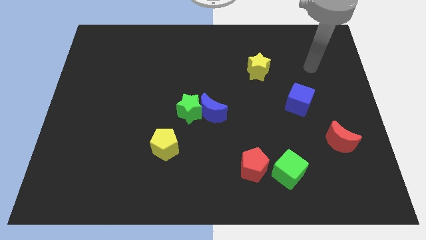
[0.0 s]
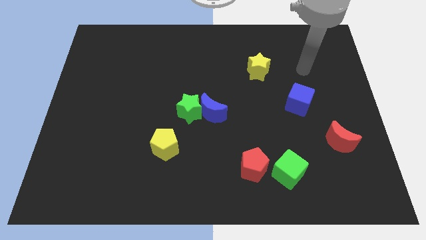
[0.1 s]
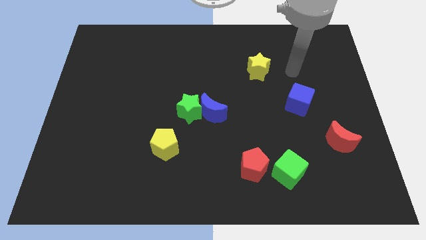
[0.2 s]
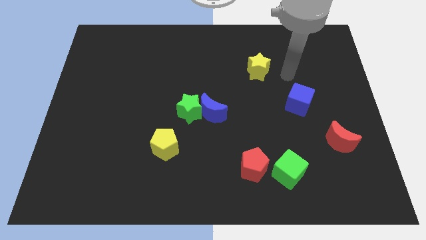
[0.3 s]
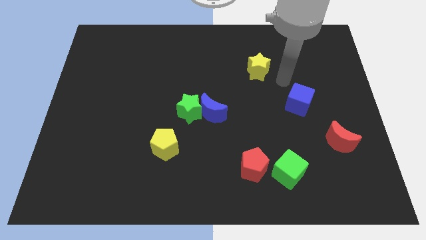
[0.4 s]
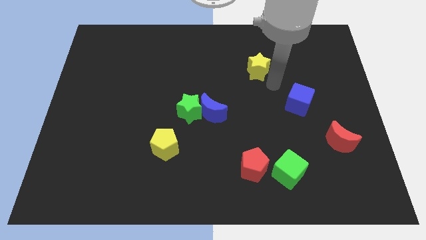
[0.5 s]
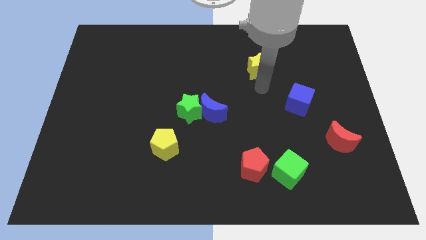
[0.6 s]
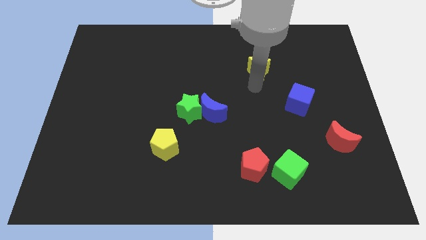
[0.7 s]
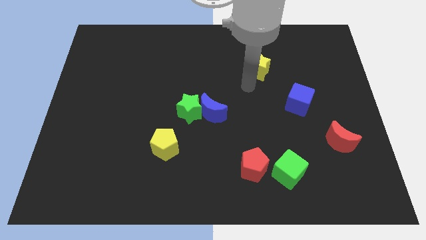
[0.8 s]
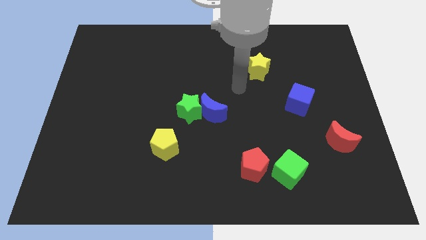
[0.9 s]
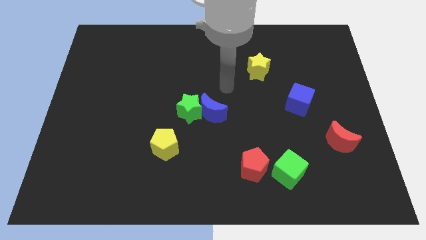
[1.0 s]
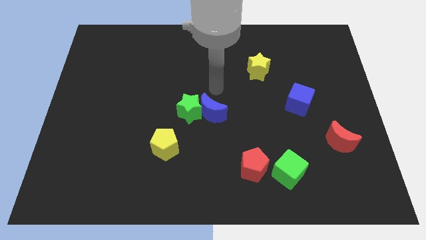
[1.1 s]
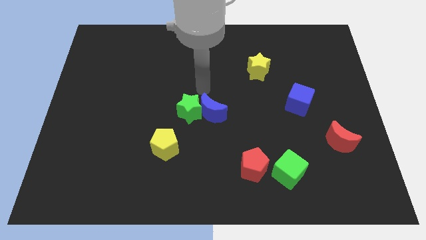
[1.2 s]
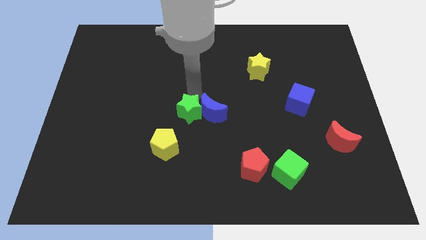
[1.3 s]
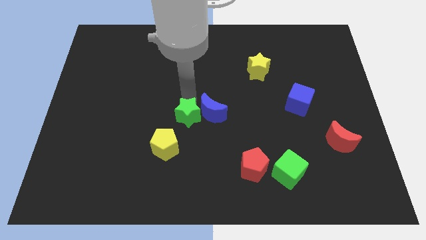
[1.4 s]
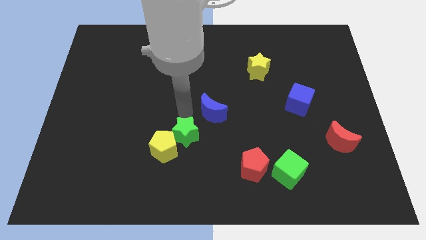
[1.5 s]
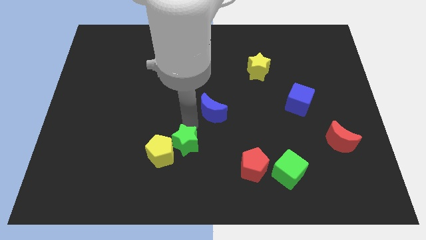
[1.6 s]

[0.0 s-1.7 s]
move the blue moon away from the green star

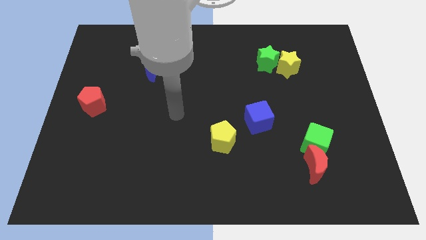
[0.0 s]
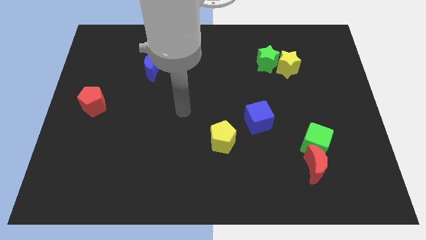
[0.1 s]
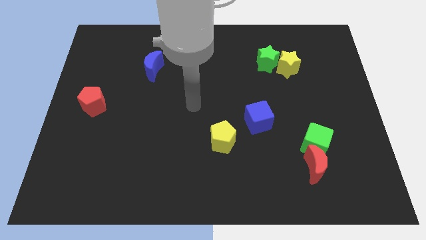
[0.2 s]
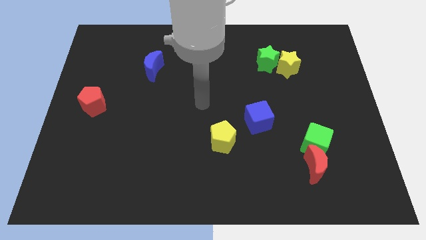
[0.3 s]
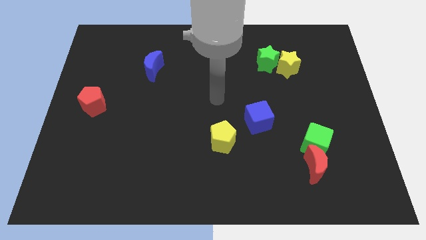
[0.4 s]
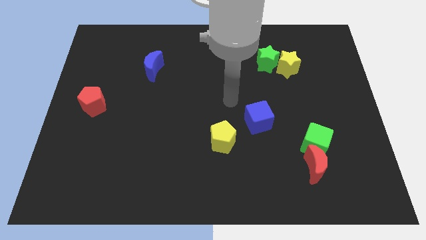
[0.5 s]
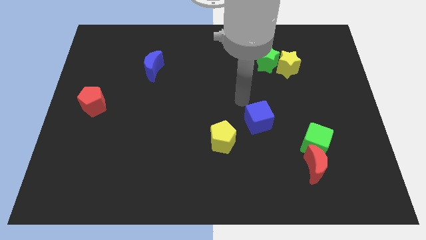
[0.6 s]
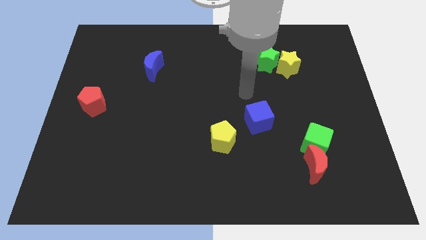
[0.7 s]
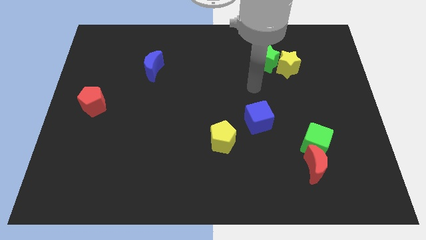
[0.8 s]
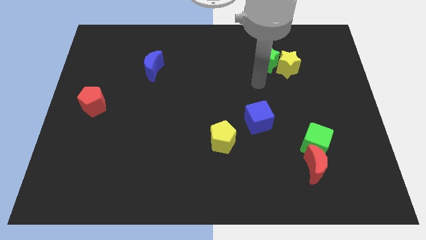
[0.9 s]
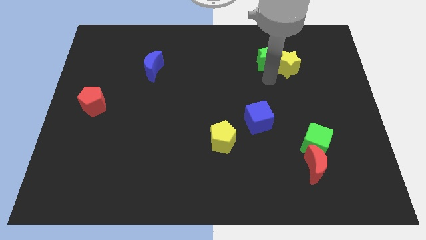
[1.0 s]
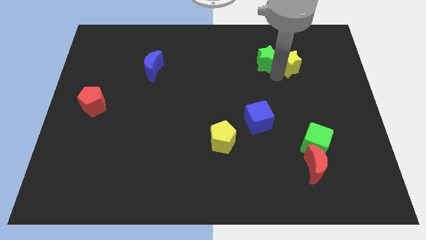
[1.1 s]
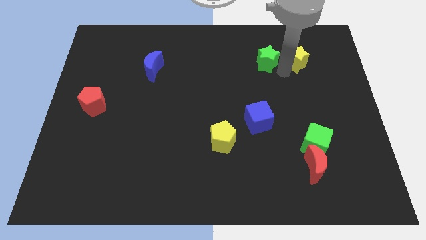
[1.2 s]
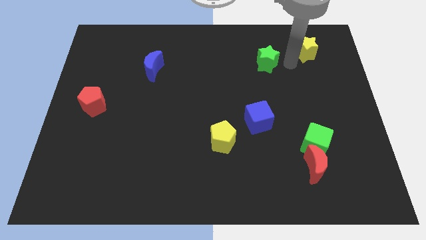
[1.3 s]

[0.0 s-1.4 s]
move the green star away from the yellow star

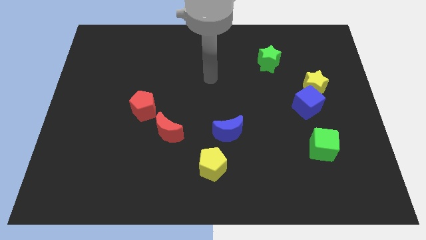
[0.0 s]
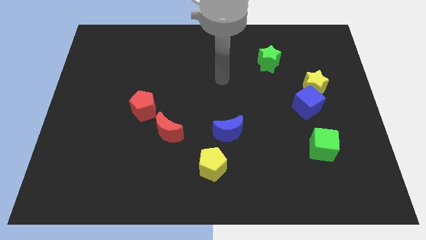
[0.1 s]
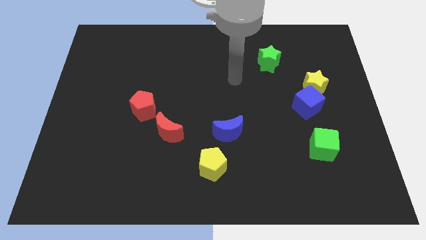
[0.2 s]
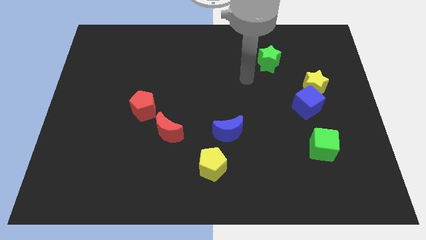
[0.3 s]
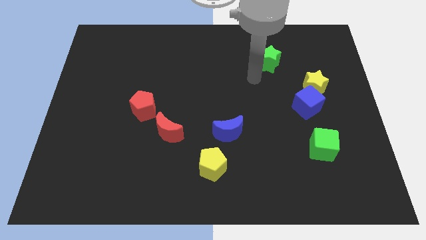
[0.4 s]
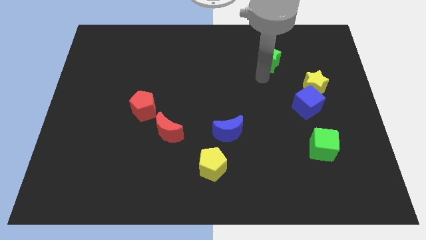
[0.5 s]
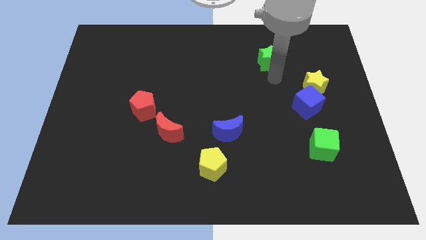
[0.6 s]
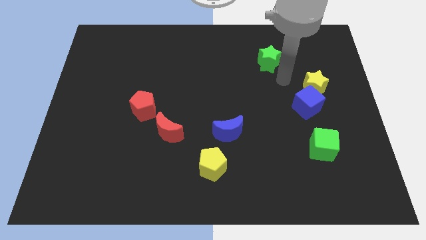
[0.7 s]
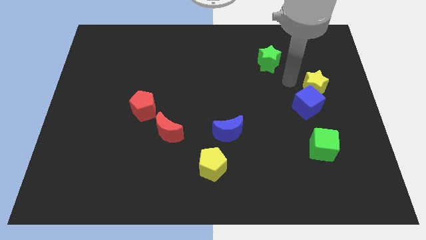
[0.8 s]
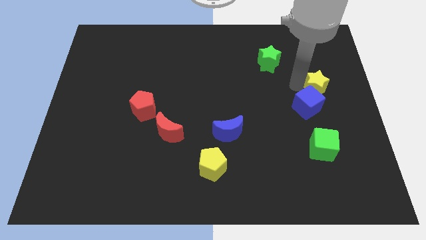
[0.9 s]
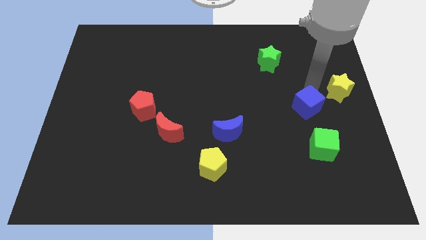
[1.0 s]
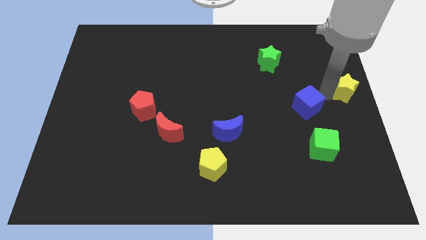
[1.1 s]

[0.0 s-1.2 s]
separate the blue cube from the yellow star

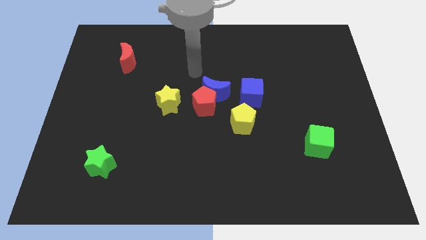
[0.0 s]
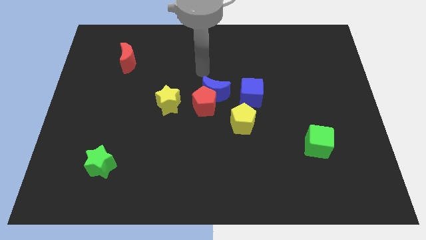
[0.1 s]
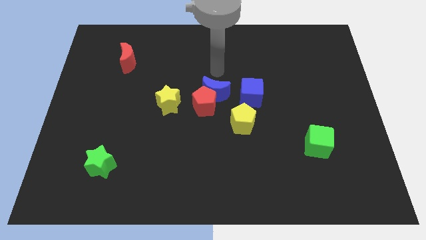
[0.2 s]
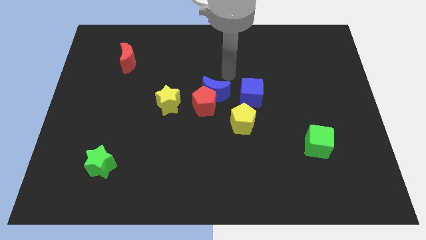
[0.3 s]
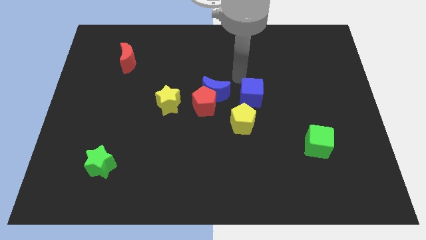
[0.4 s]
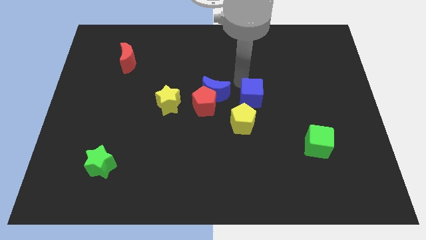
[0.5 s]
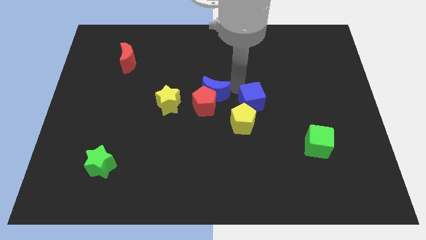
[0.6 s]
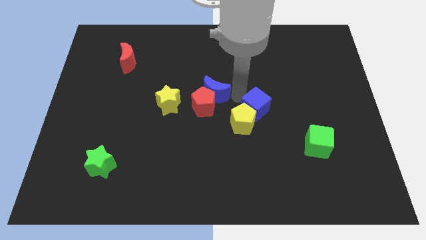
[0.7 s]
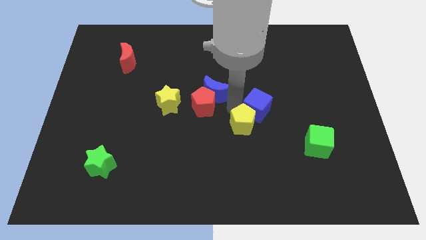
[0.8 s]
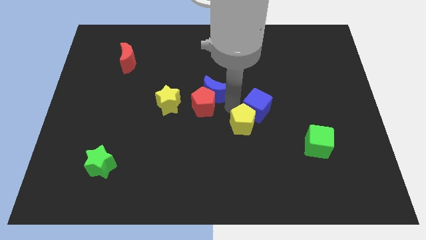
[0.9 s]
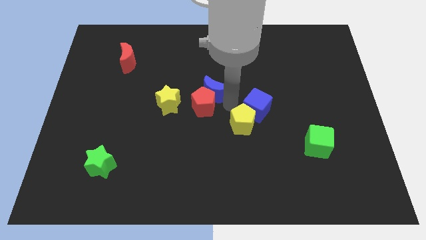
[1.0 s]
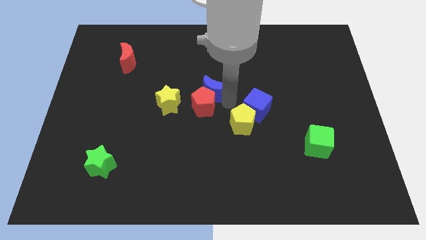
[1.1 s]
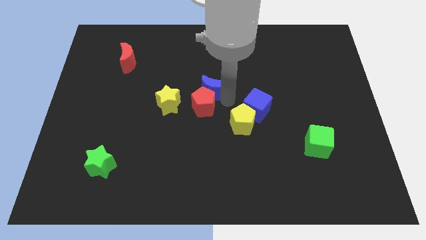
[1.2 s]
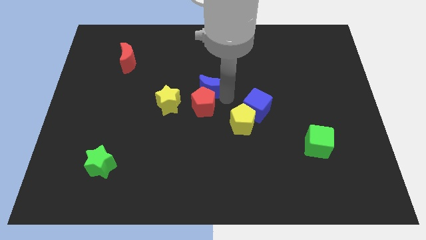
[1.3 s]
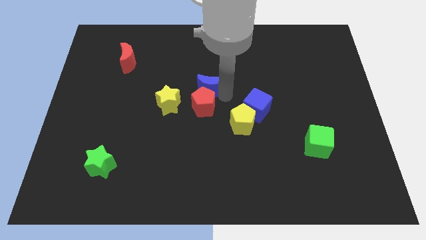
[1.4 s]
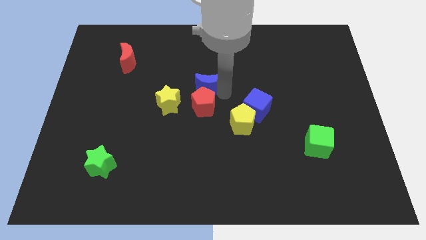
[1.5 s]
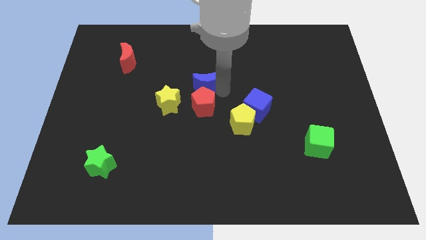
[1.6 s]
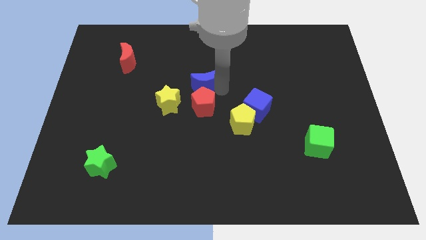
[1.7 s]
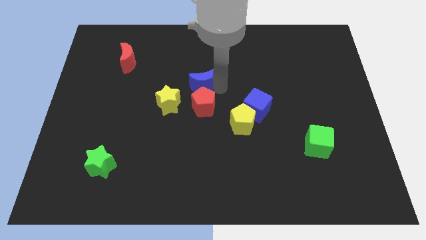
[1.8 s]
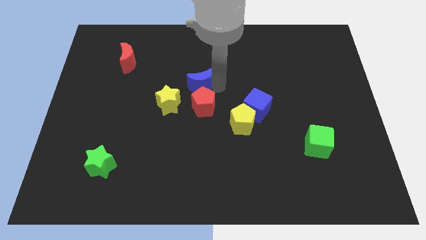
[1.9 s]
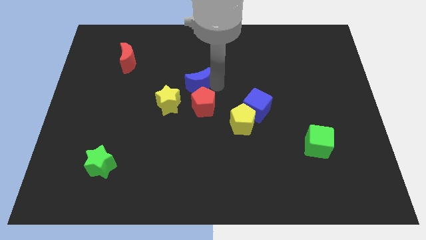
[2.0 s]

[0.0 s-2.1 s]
separate the blue moon from the red pentagon and blue cube

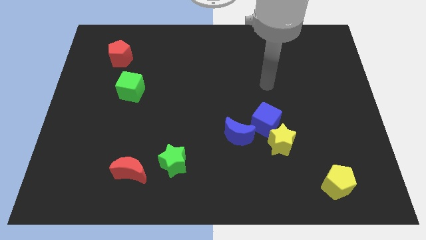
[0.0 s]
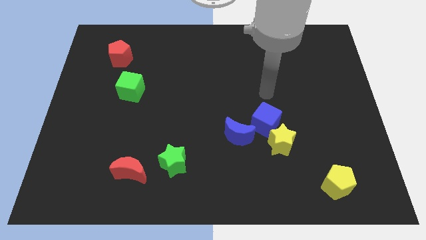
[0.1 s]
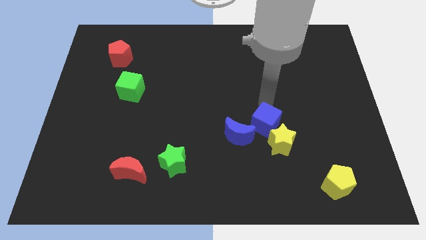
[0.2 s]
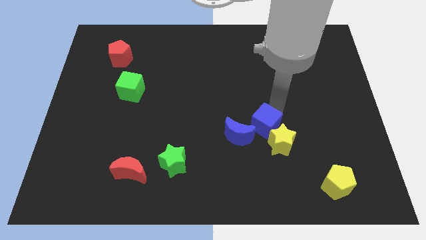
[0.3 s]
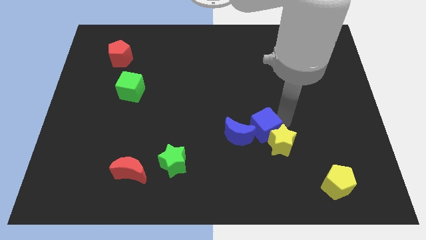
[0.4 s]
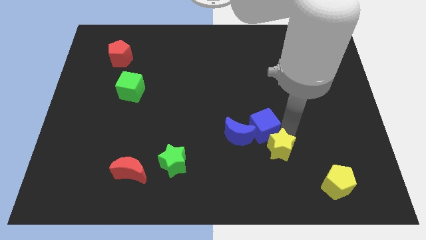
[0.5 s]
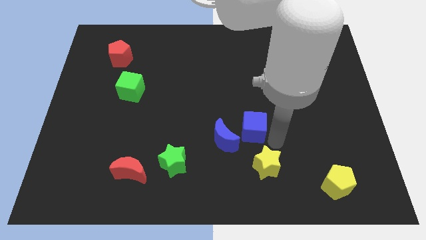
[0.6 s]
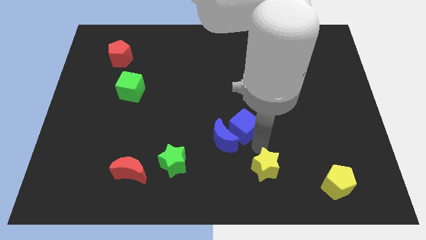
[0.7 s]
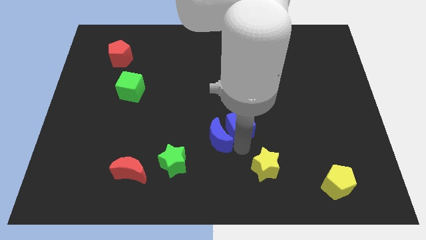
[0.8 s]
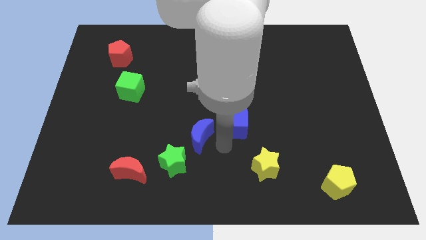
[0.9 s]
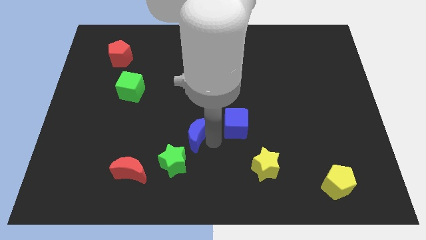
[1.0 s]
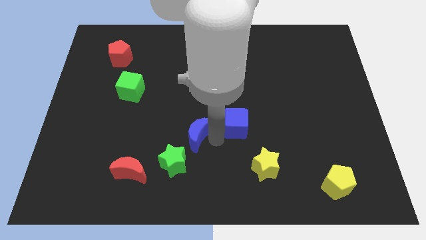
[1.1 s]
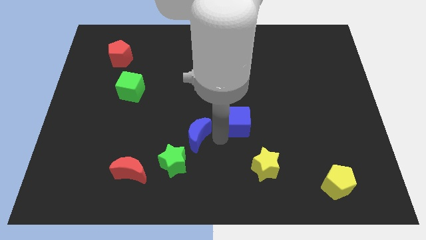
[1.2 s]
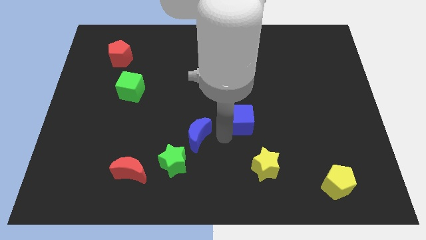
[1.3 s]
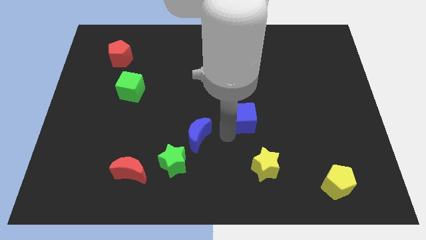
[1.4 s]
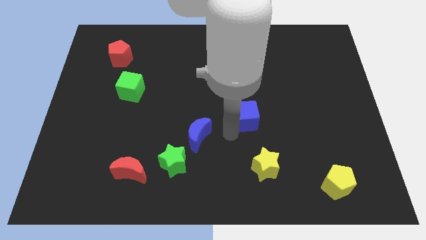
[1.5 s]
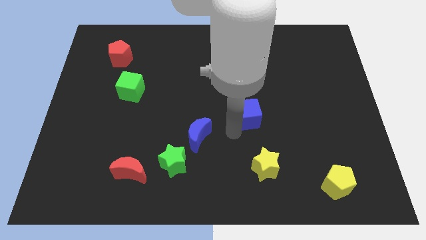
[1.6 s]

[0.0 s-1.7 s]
pull the blue cube apart from the yellow star and blue moon

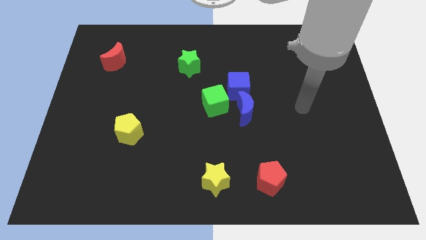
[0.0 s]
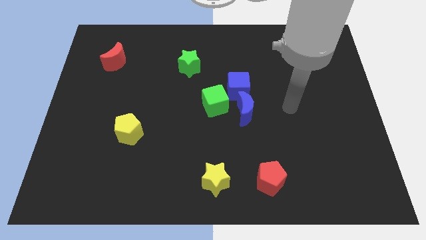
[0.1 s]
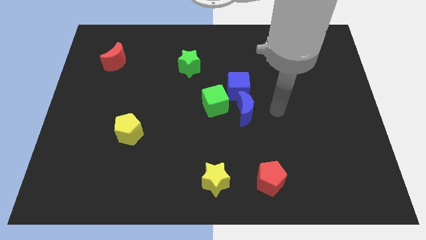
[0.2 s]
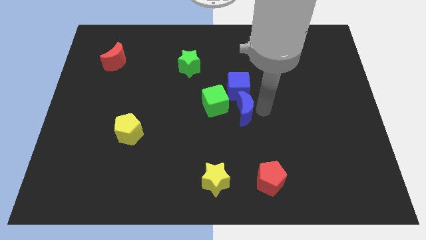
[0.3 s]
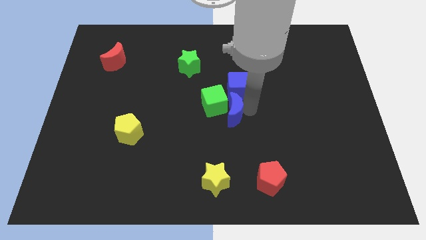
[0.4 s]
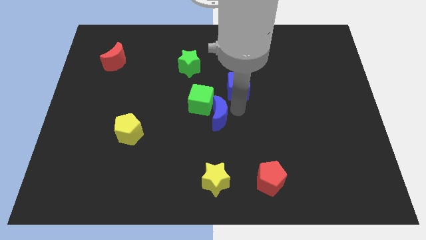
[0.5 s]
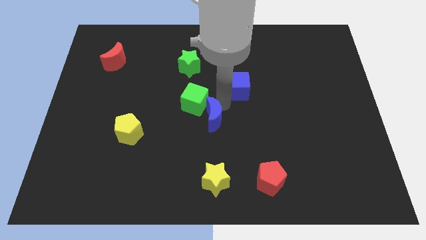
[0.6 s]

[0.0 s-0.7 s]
pull the blue cube apart from the blue moon and green cube

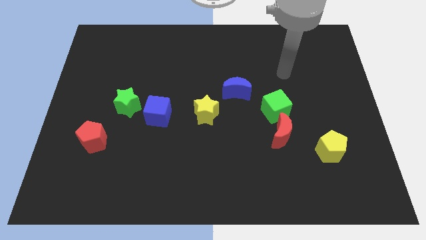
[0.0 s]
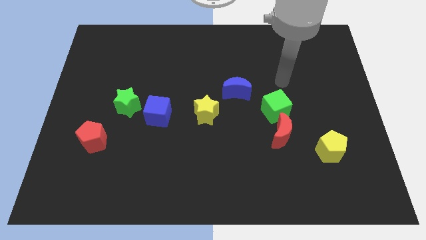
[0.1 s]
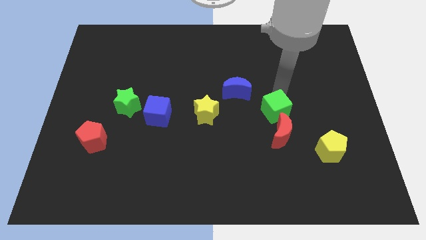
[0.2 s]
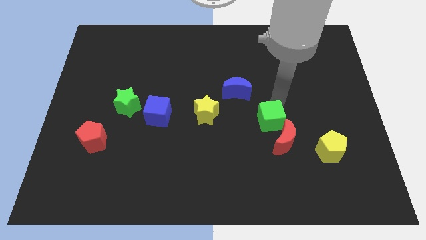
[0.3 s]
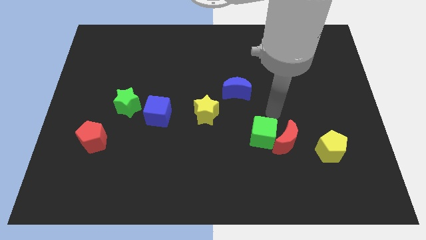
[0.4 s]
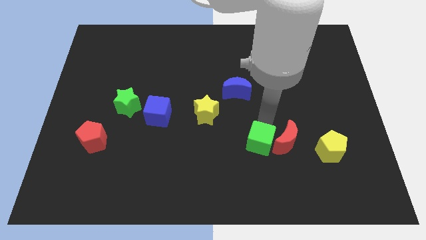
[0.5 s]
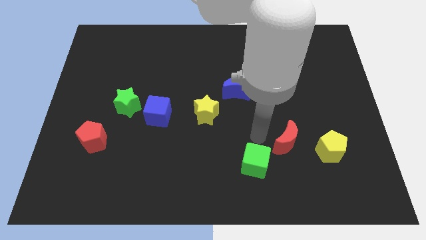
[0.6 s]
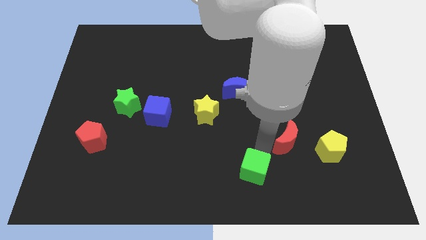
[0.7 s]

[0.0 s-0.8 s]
move the red moon away from the green cube
